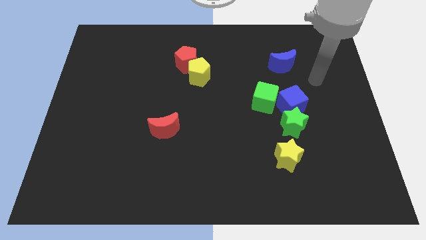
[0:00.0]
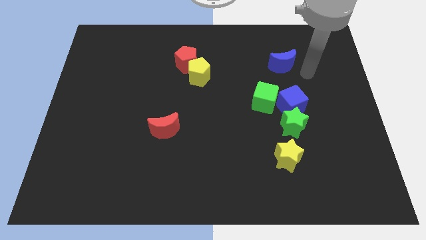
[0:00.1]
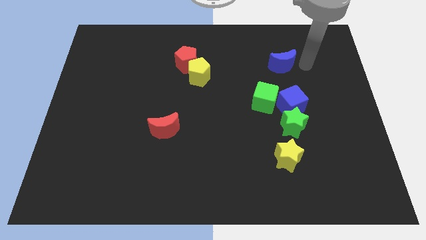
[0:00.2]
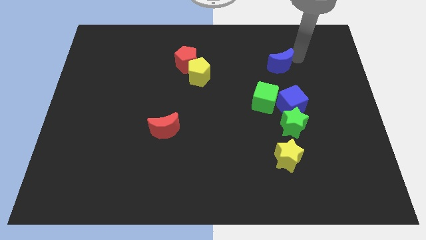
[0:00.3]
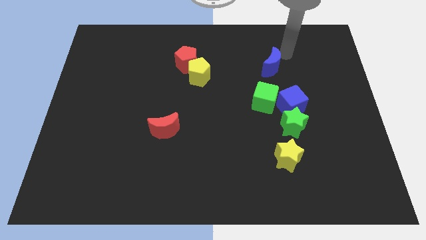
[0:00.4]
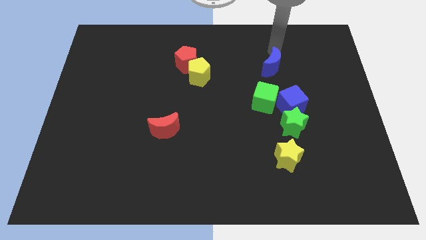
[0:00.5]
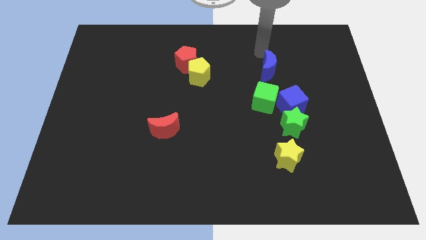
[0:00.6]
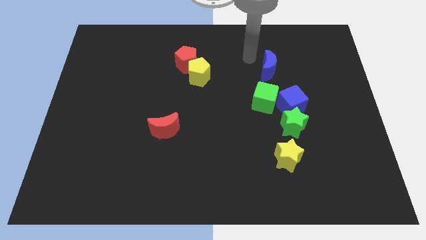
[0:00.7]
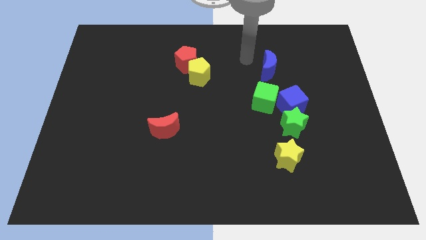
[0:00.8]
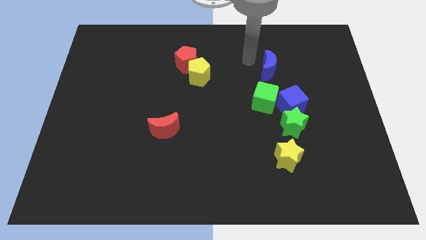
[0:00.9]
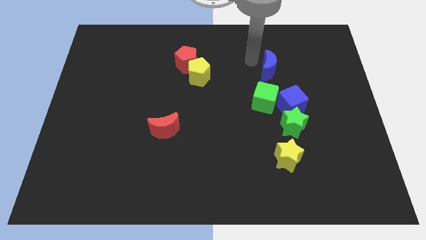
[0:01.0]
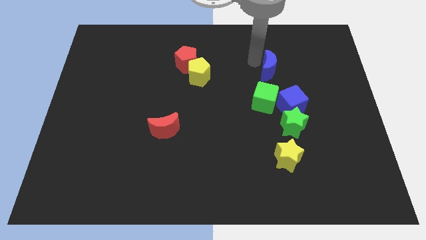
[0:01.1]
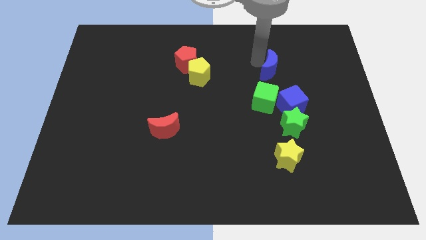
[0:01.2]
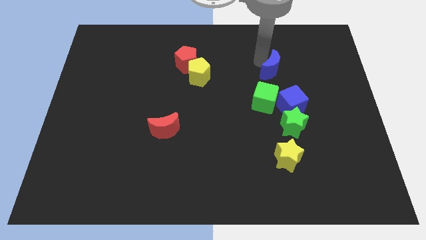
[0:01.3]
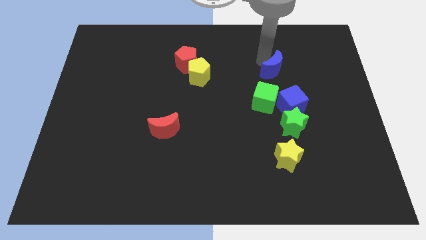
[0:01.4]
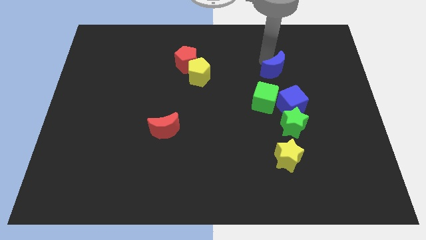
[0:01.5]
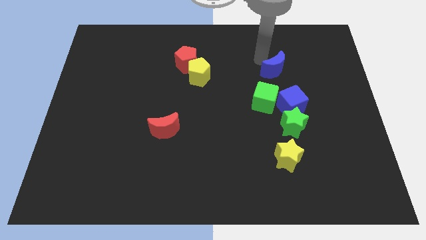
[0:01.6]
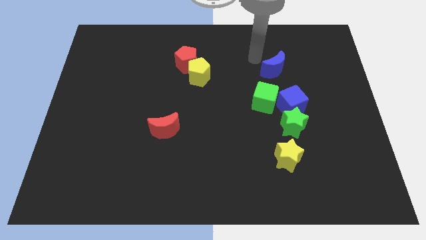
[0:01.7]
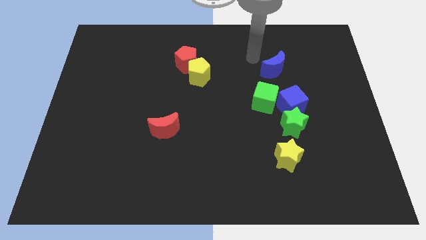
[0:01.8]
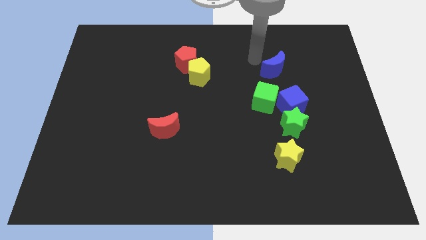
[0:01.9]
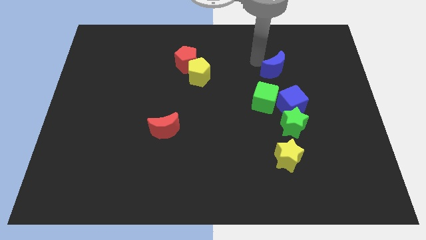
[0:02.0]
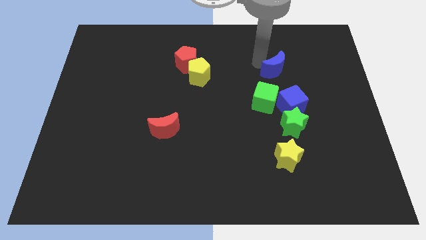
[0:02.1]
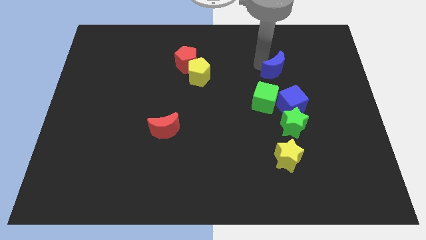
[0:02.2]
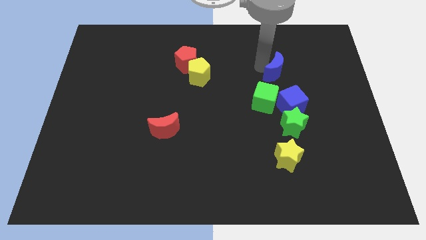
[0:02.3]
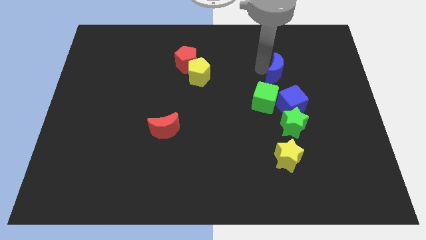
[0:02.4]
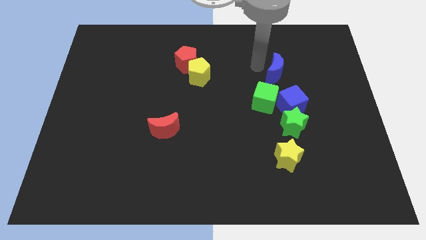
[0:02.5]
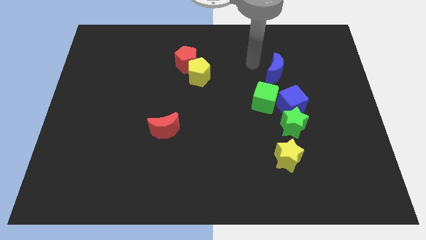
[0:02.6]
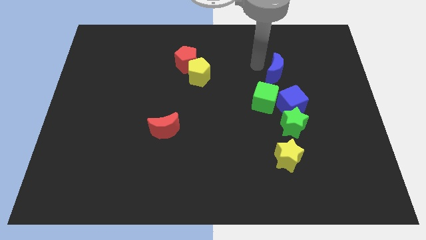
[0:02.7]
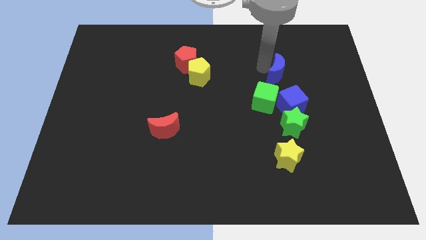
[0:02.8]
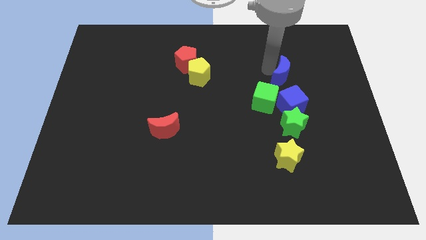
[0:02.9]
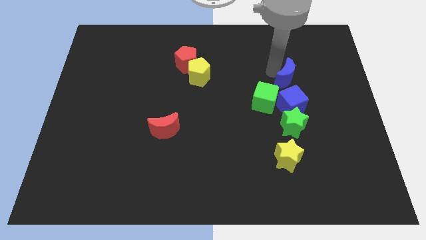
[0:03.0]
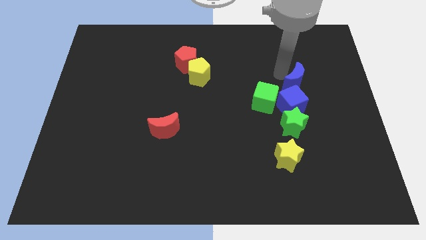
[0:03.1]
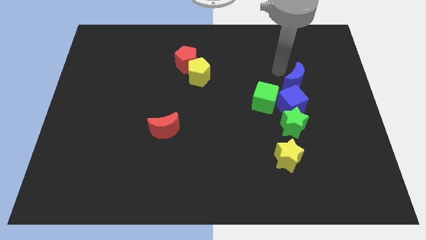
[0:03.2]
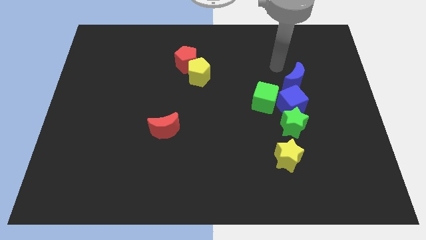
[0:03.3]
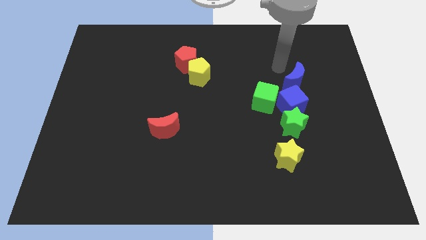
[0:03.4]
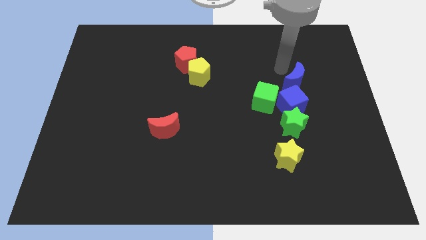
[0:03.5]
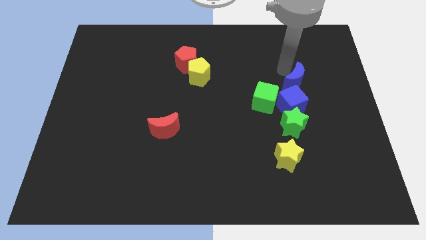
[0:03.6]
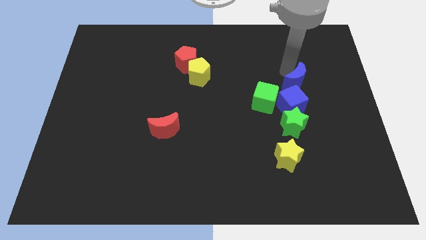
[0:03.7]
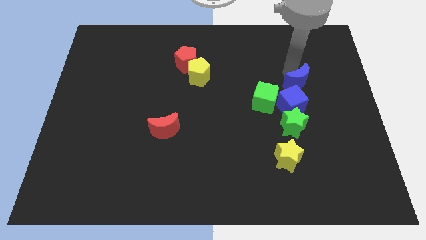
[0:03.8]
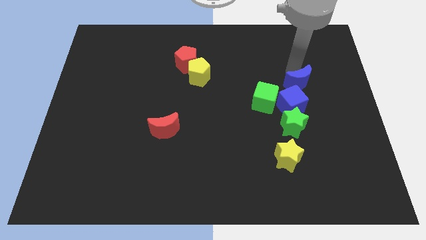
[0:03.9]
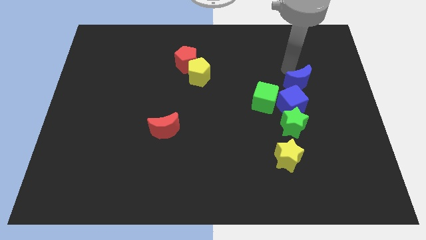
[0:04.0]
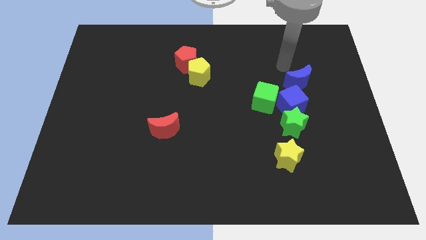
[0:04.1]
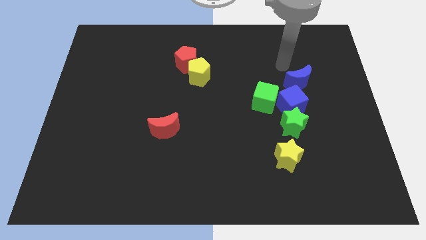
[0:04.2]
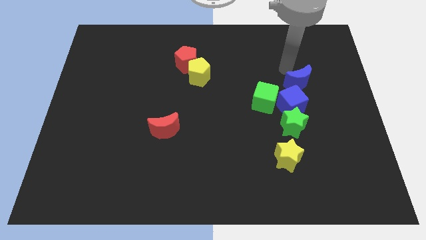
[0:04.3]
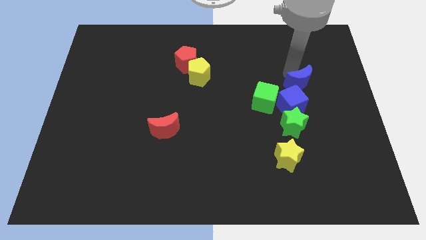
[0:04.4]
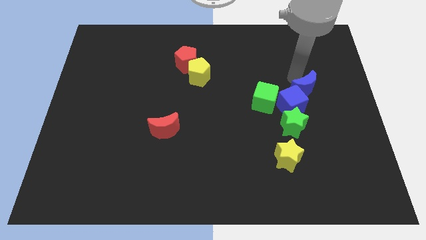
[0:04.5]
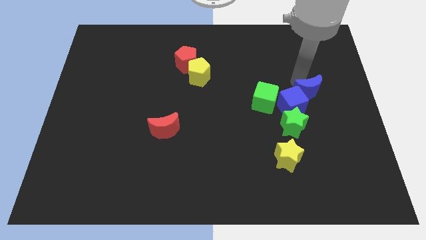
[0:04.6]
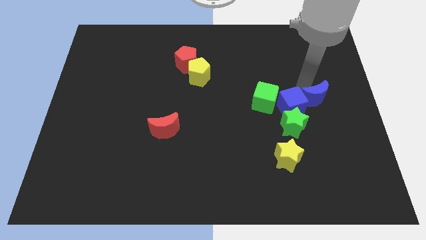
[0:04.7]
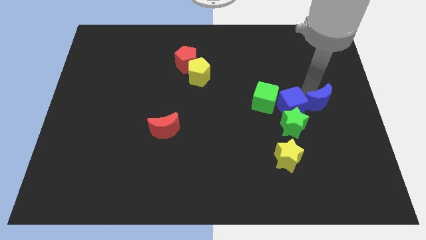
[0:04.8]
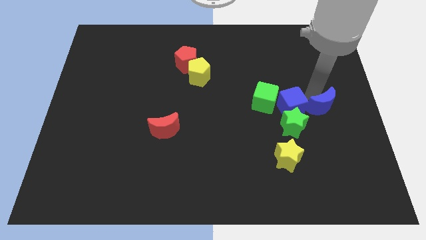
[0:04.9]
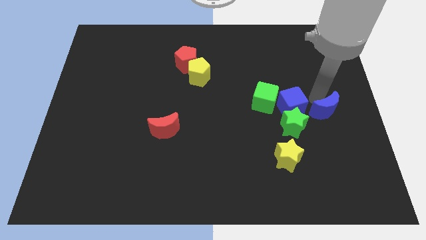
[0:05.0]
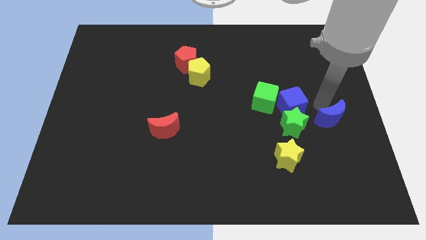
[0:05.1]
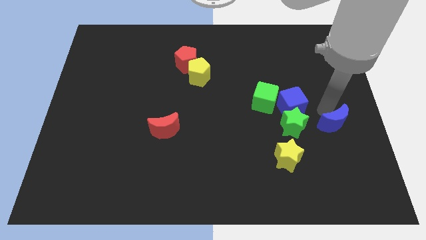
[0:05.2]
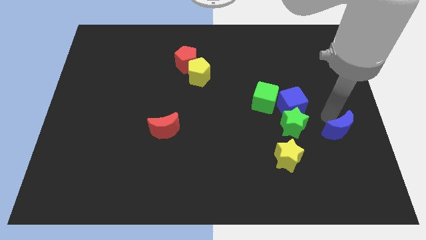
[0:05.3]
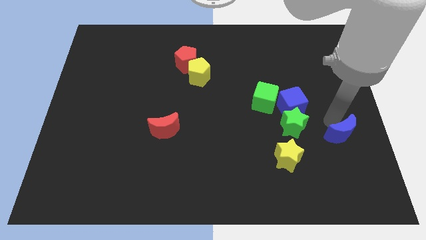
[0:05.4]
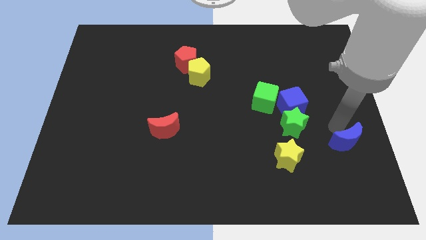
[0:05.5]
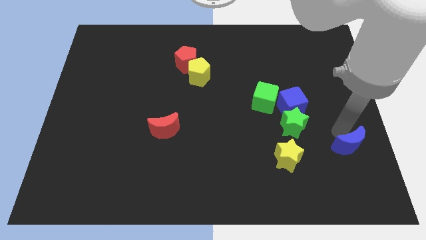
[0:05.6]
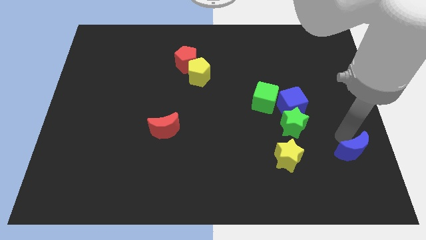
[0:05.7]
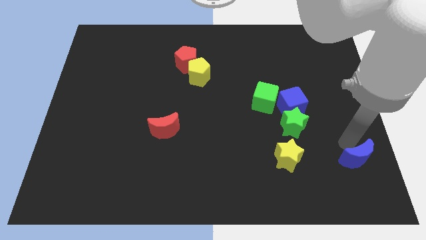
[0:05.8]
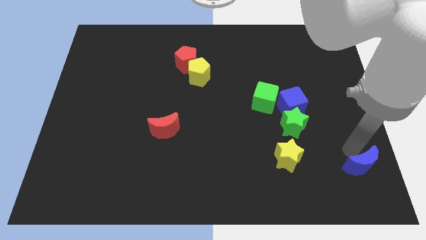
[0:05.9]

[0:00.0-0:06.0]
push the blue moon to the bottom right
